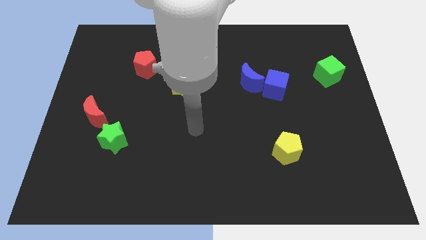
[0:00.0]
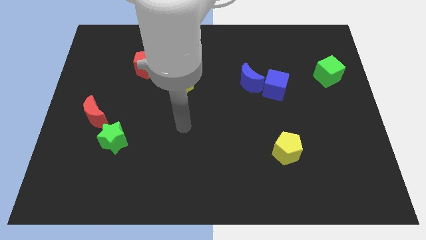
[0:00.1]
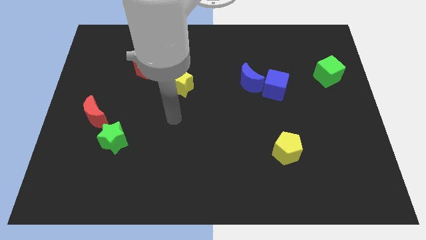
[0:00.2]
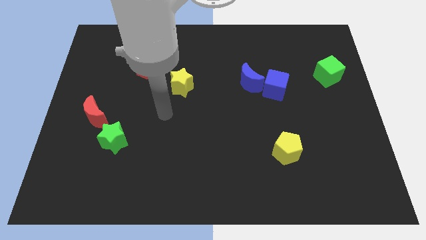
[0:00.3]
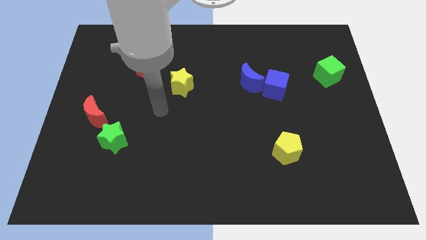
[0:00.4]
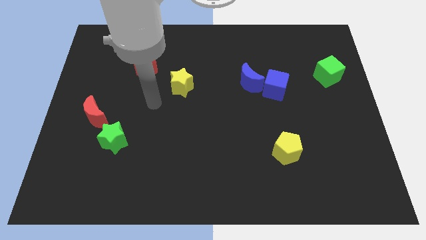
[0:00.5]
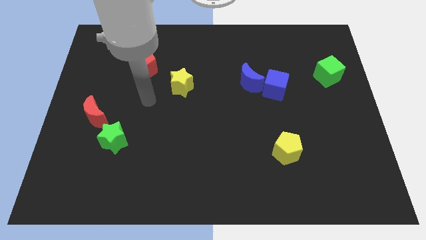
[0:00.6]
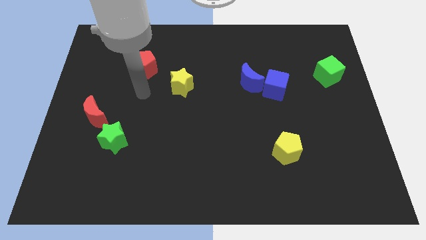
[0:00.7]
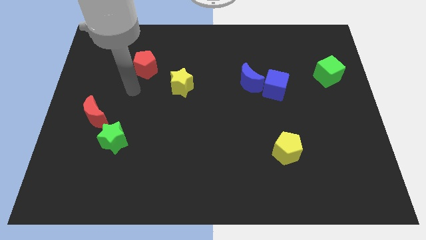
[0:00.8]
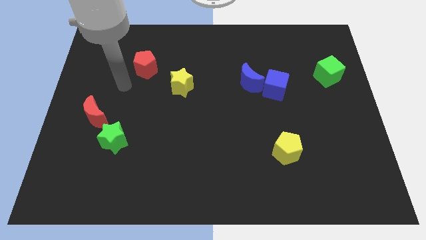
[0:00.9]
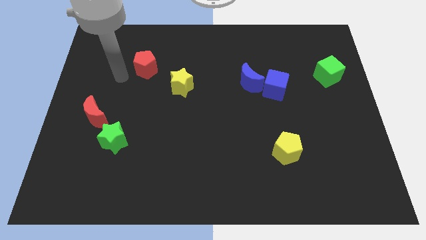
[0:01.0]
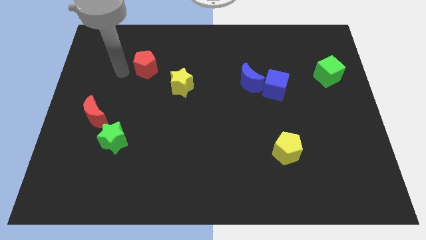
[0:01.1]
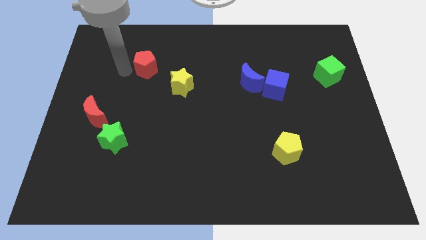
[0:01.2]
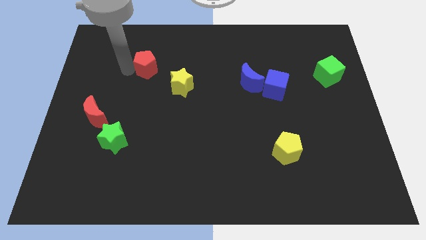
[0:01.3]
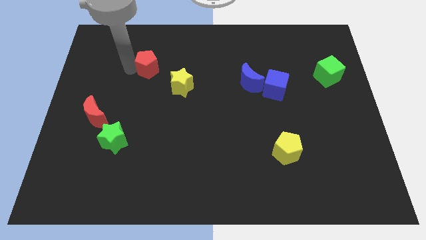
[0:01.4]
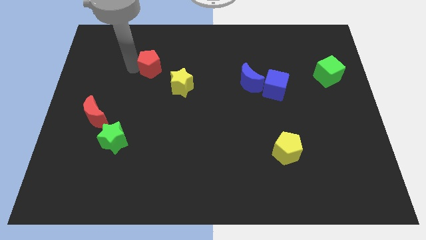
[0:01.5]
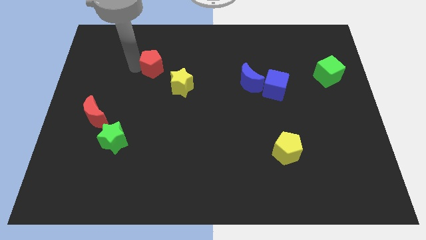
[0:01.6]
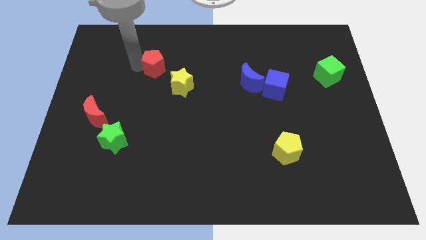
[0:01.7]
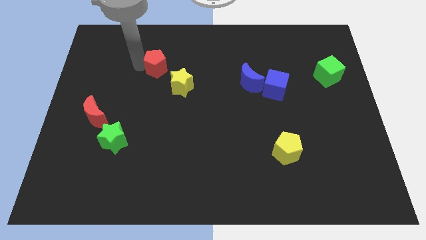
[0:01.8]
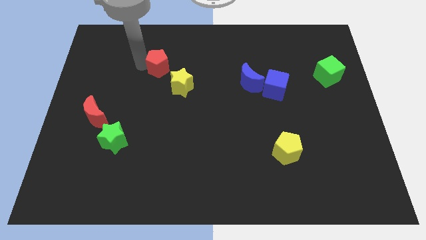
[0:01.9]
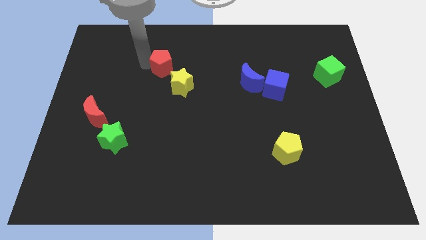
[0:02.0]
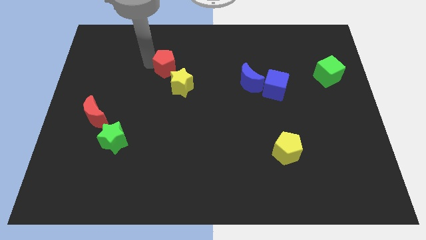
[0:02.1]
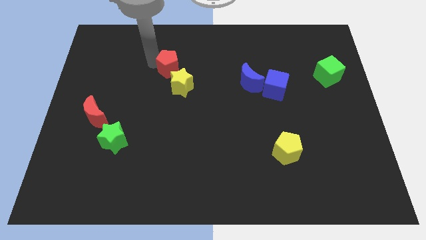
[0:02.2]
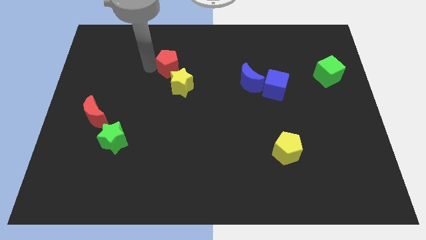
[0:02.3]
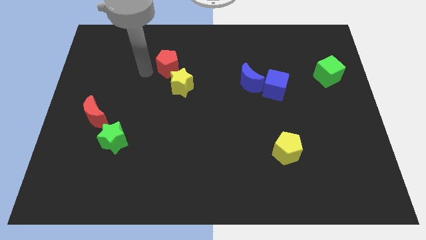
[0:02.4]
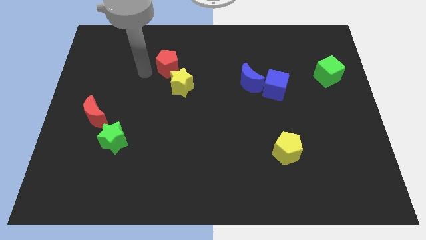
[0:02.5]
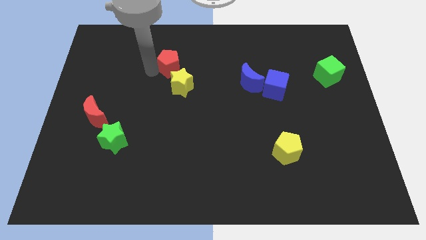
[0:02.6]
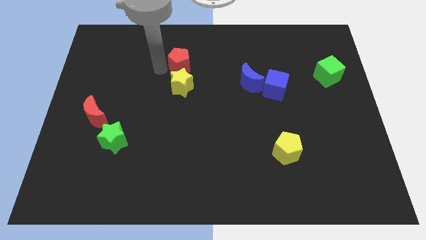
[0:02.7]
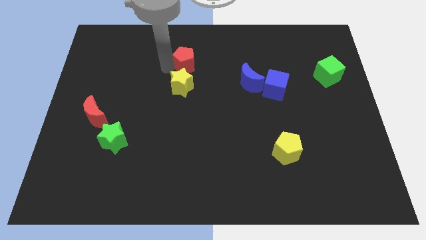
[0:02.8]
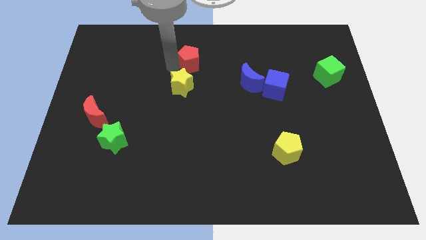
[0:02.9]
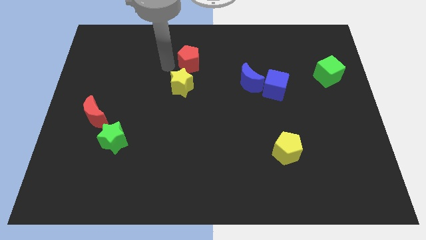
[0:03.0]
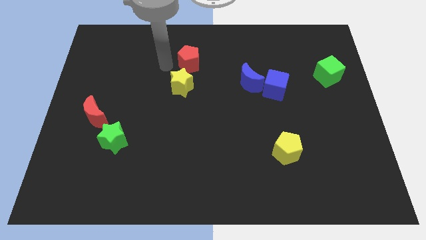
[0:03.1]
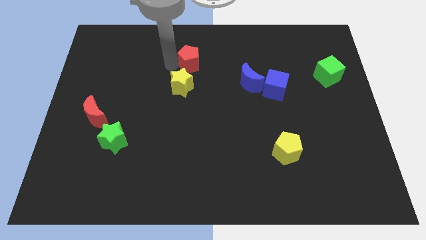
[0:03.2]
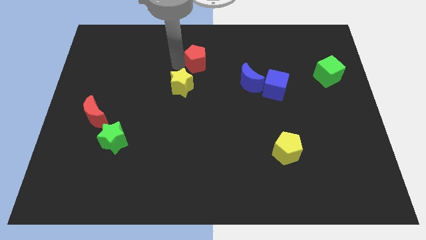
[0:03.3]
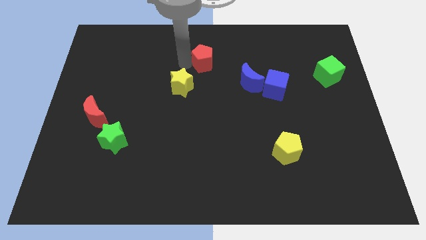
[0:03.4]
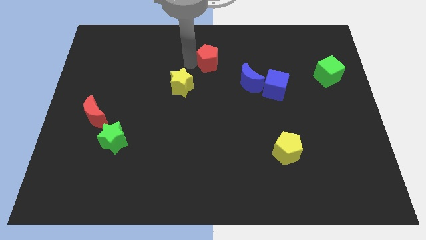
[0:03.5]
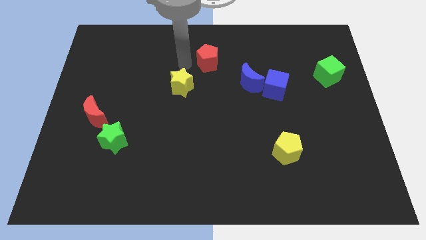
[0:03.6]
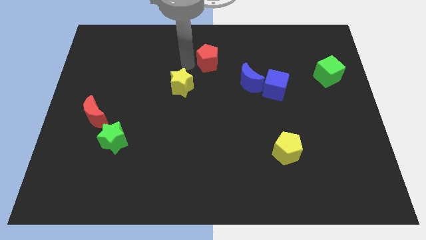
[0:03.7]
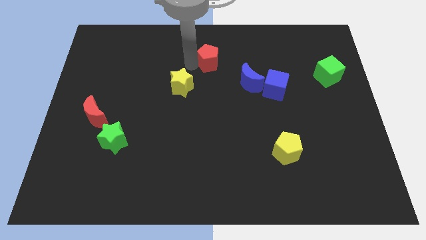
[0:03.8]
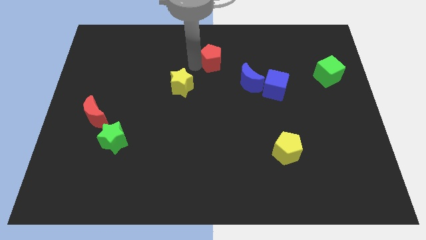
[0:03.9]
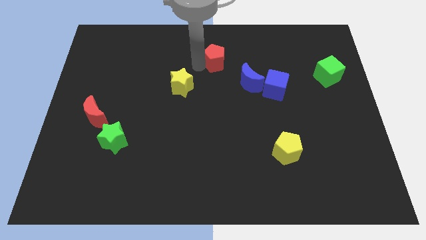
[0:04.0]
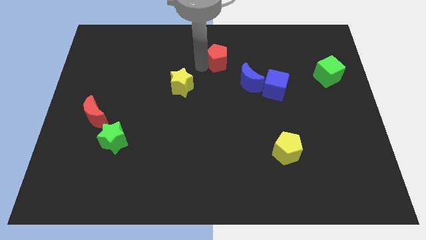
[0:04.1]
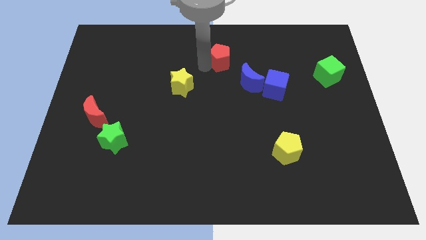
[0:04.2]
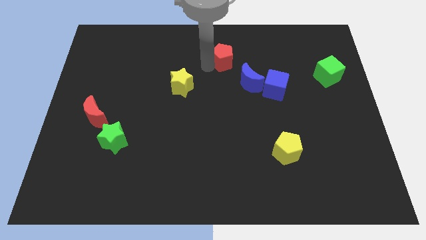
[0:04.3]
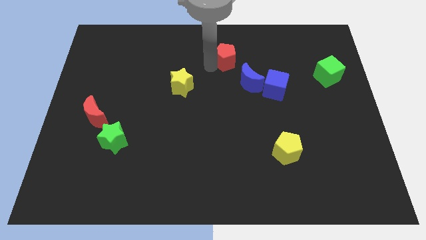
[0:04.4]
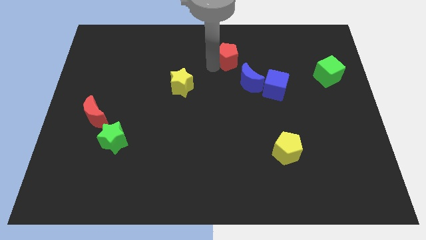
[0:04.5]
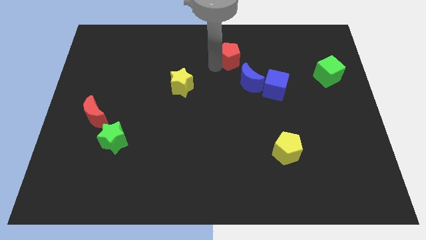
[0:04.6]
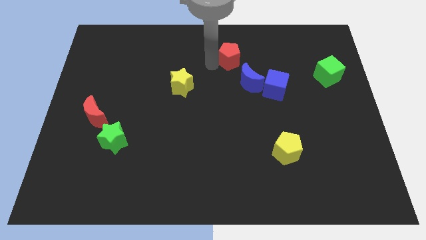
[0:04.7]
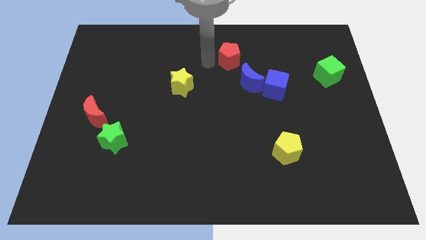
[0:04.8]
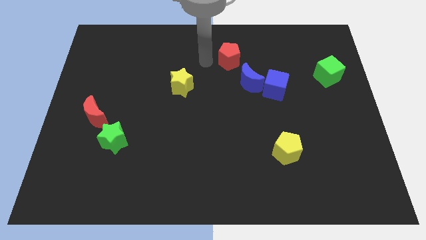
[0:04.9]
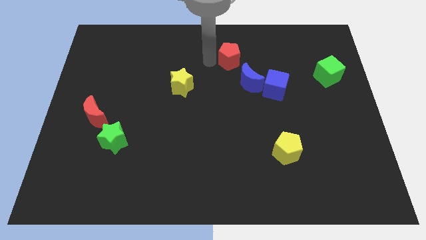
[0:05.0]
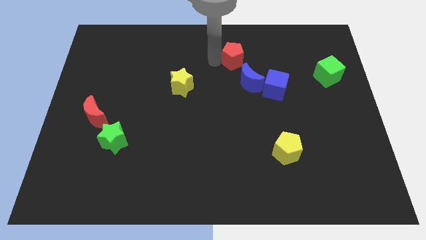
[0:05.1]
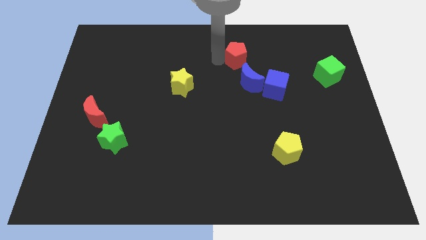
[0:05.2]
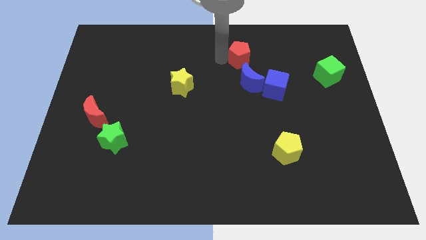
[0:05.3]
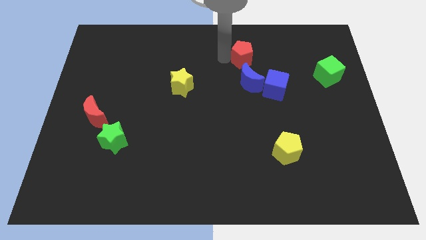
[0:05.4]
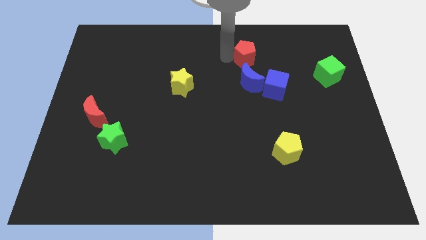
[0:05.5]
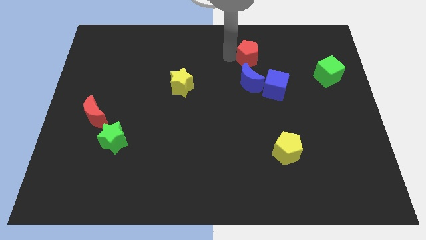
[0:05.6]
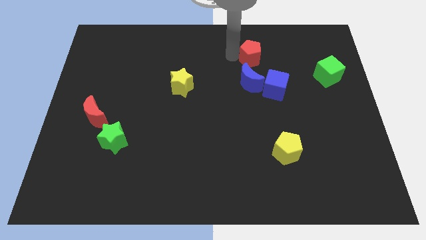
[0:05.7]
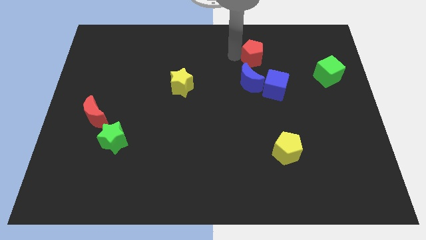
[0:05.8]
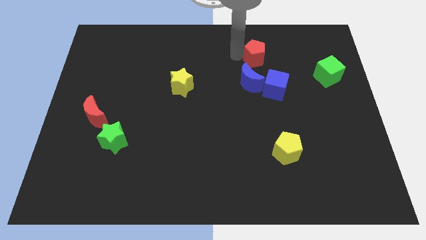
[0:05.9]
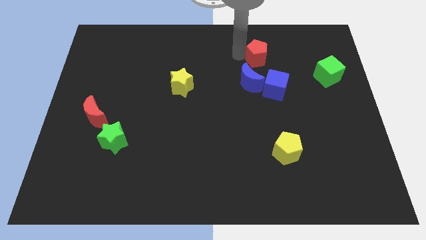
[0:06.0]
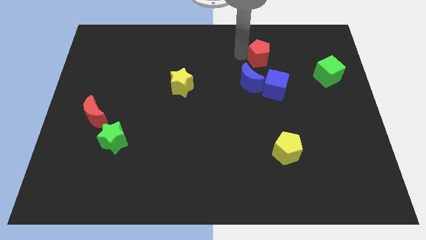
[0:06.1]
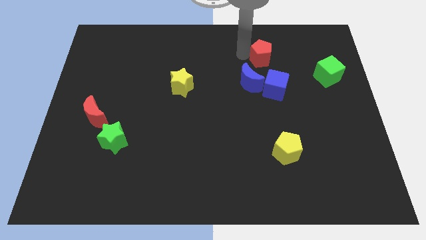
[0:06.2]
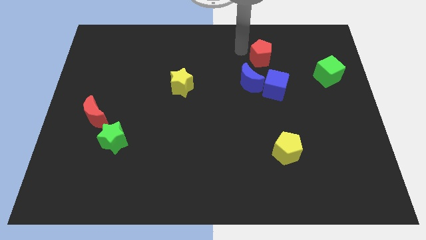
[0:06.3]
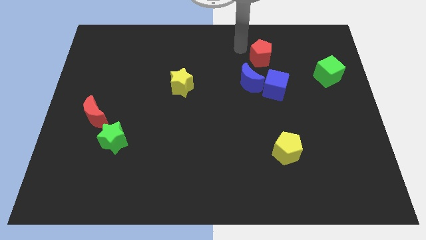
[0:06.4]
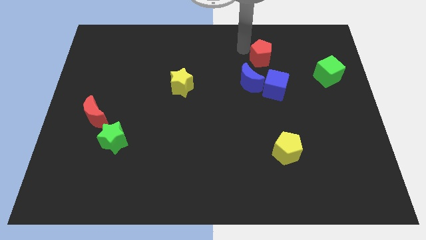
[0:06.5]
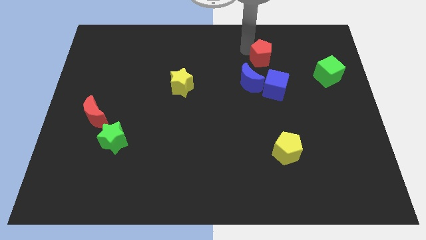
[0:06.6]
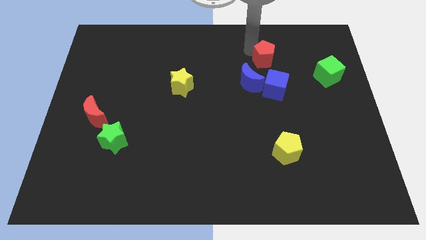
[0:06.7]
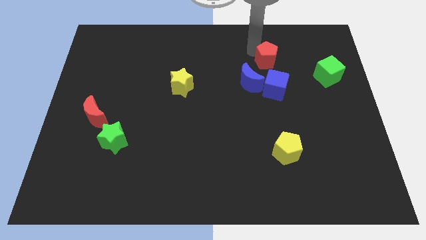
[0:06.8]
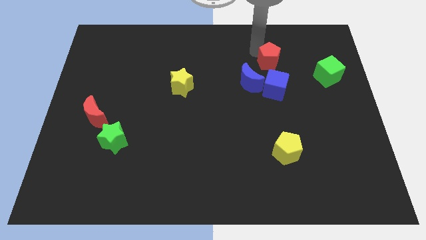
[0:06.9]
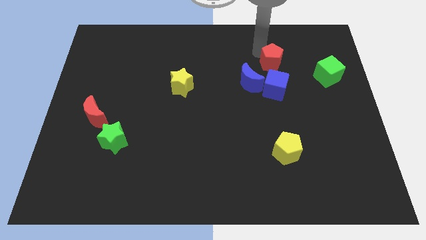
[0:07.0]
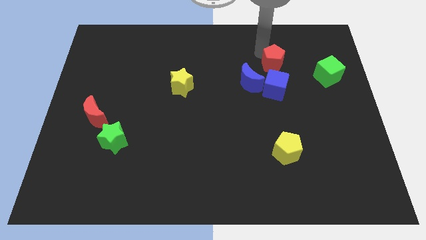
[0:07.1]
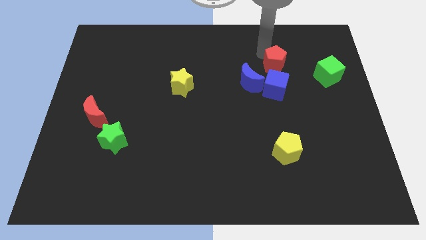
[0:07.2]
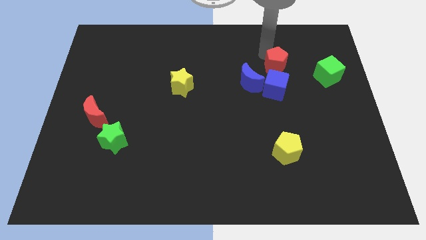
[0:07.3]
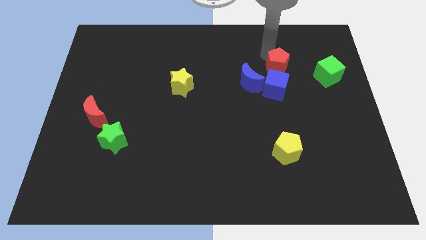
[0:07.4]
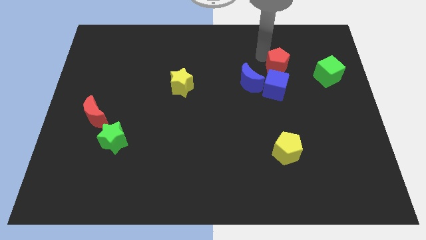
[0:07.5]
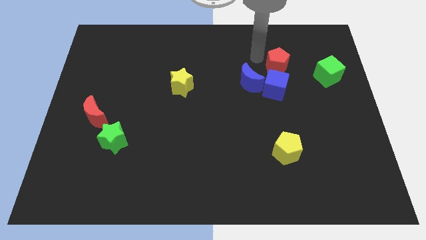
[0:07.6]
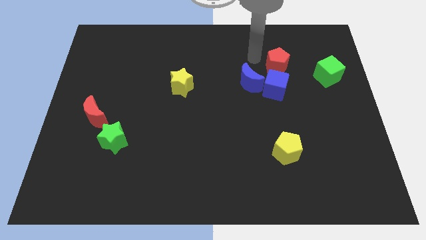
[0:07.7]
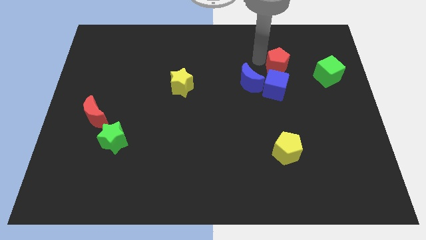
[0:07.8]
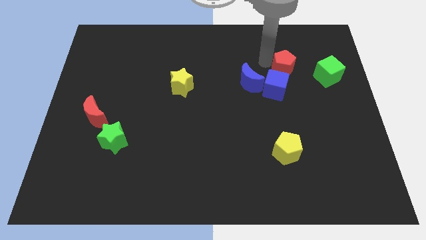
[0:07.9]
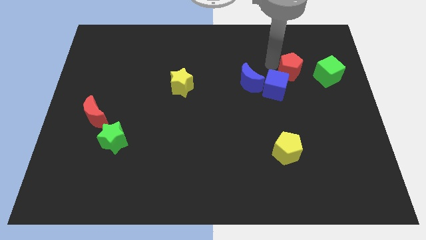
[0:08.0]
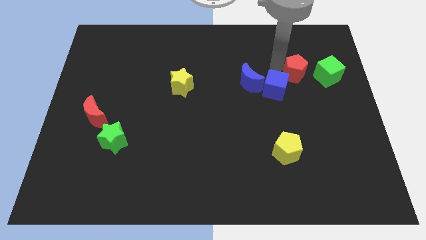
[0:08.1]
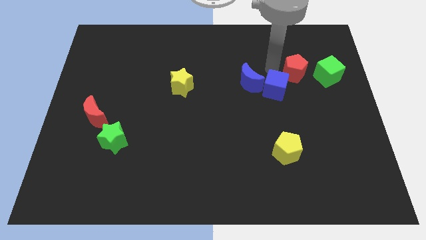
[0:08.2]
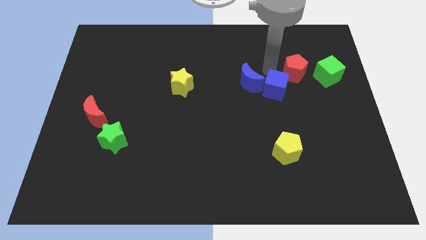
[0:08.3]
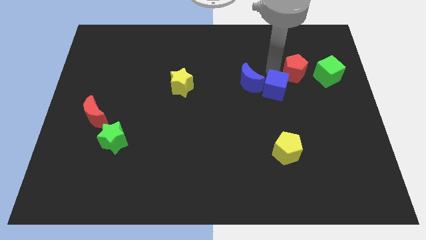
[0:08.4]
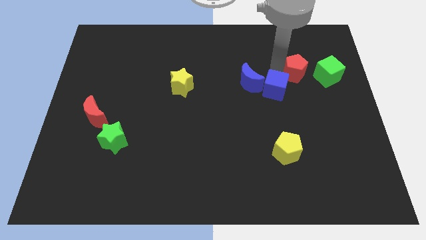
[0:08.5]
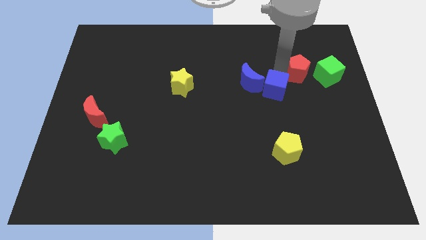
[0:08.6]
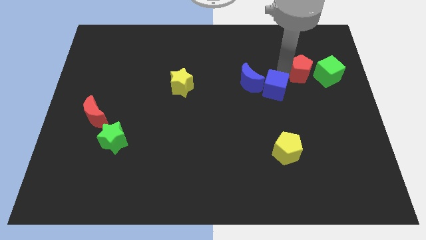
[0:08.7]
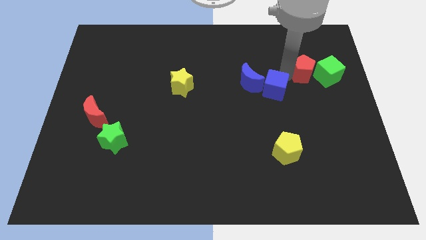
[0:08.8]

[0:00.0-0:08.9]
move the red pentagon close to the green cube
